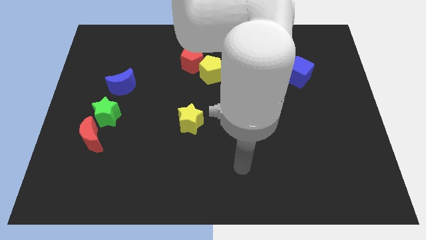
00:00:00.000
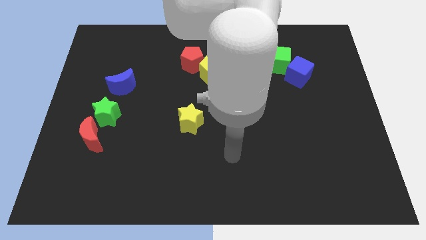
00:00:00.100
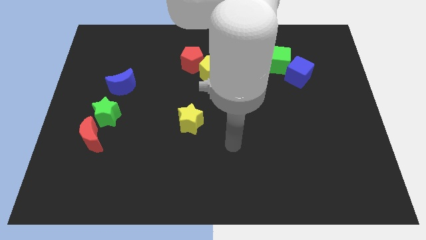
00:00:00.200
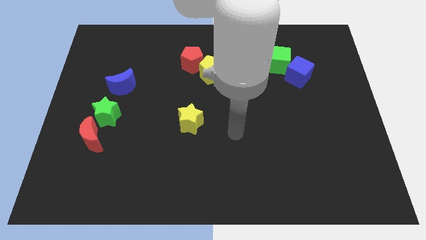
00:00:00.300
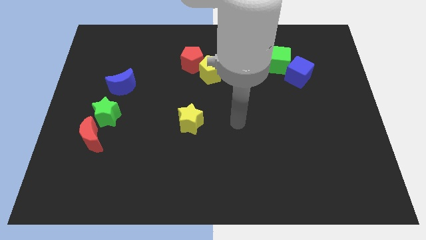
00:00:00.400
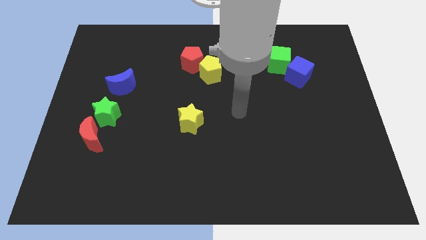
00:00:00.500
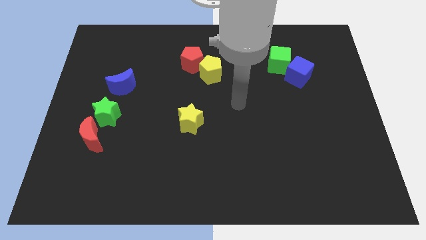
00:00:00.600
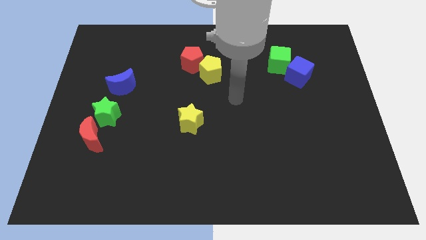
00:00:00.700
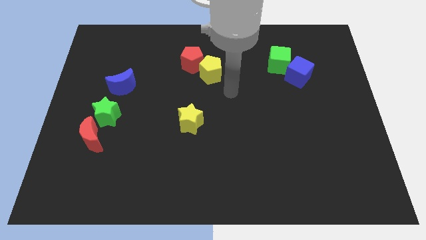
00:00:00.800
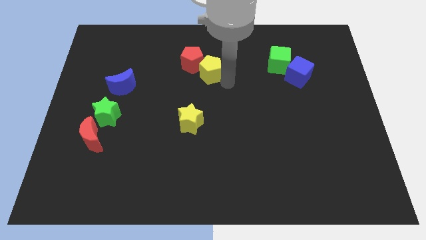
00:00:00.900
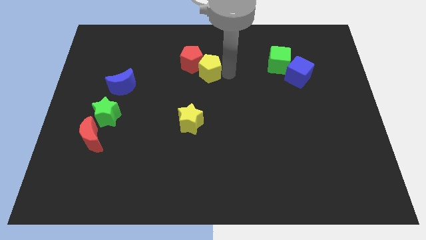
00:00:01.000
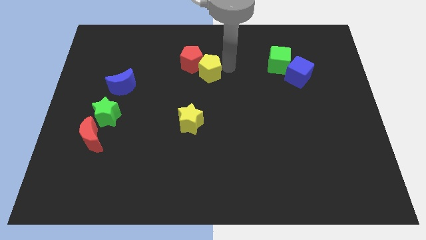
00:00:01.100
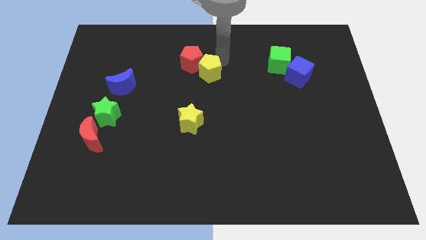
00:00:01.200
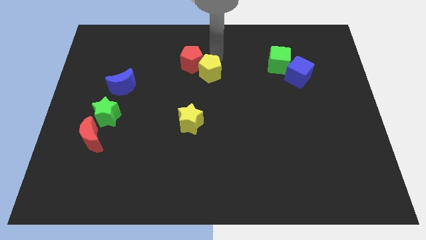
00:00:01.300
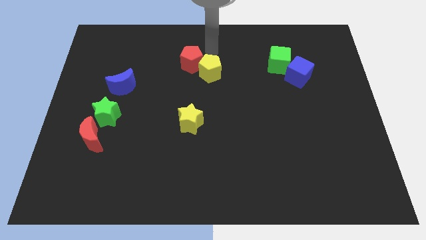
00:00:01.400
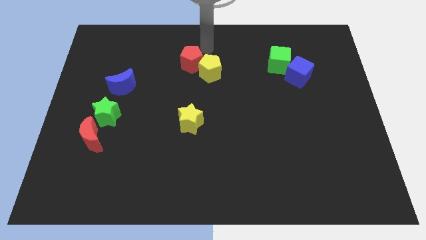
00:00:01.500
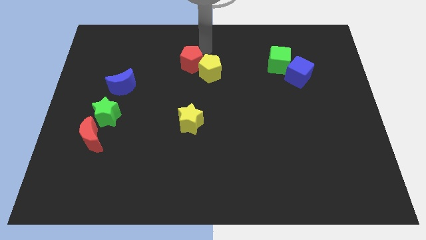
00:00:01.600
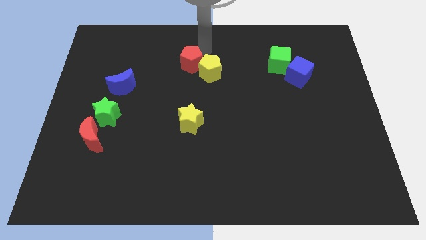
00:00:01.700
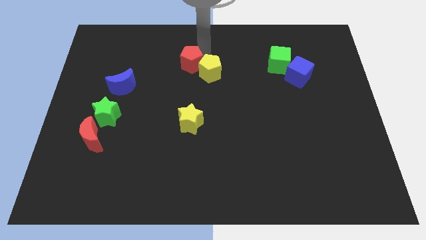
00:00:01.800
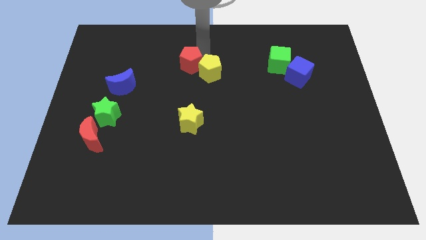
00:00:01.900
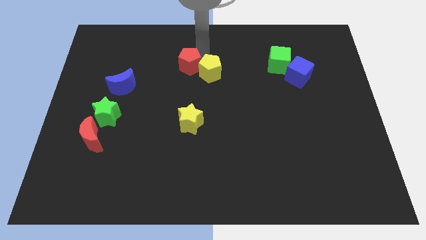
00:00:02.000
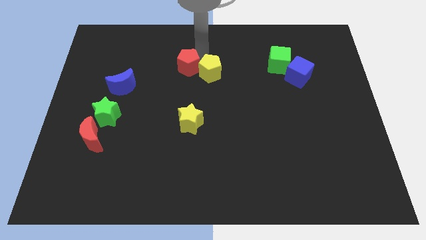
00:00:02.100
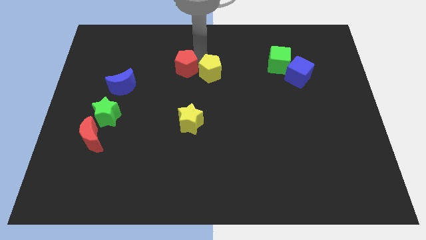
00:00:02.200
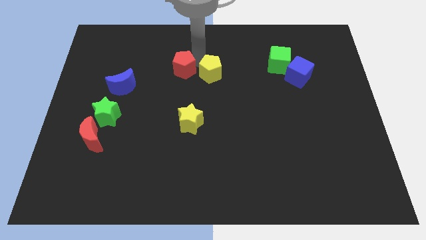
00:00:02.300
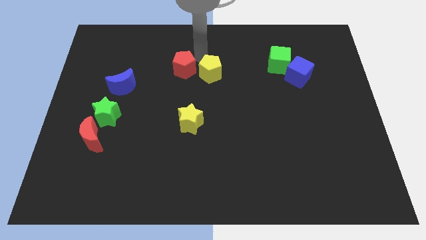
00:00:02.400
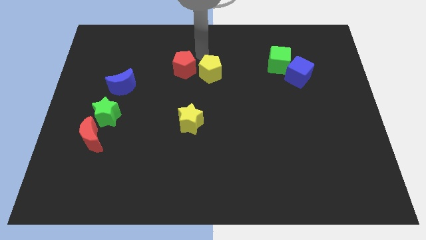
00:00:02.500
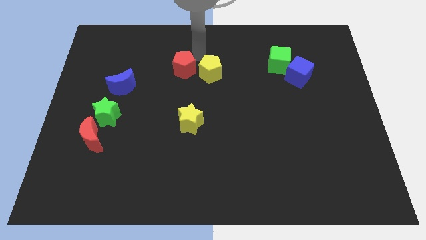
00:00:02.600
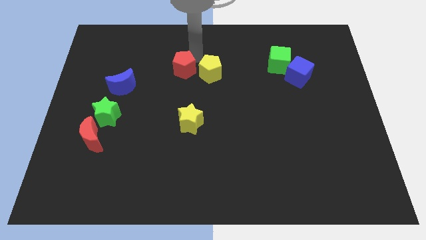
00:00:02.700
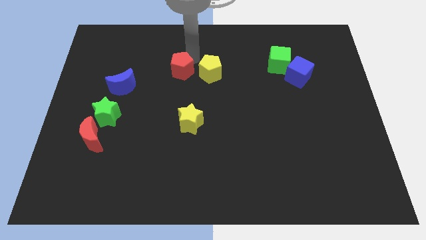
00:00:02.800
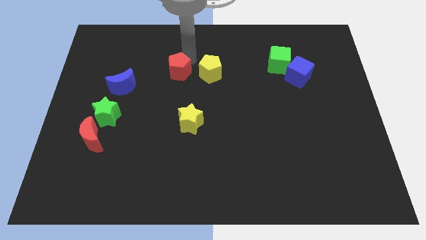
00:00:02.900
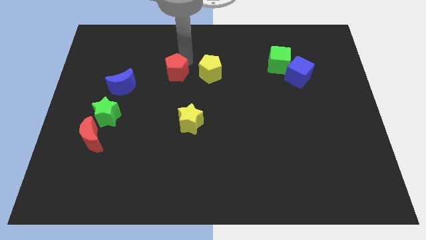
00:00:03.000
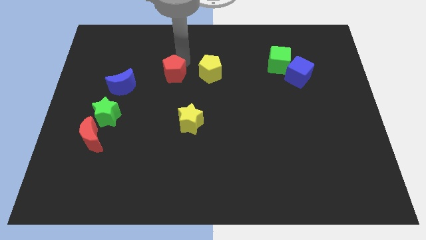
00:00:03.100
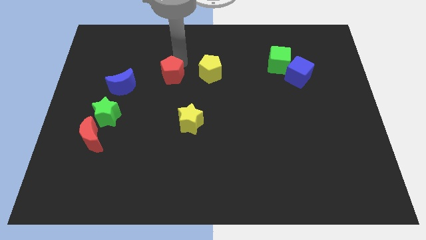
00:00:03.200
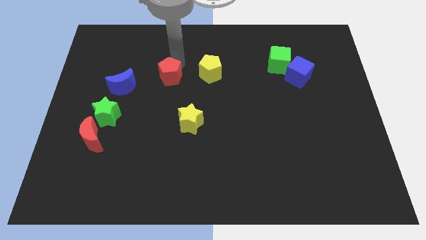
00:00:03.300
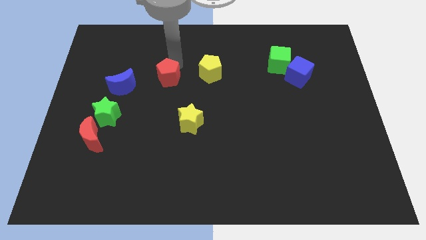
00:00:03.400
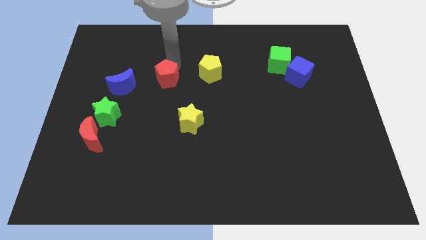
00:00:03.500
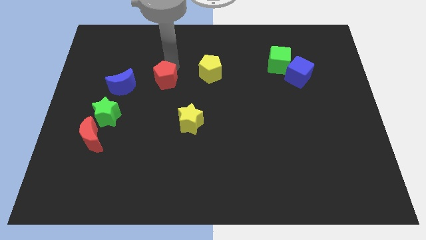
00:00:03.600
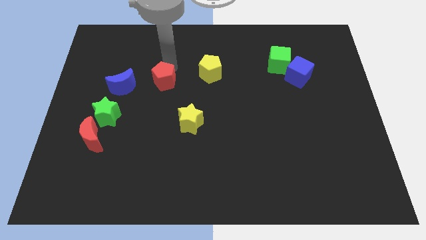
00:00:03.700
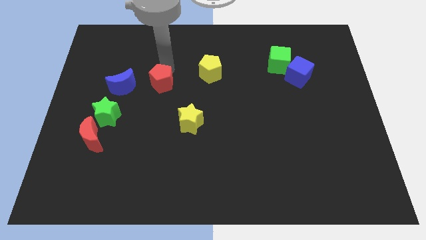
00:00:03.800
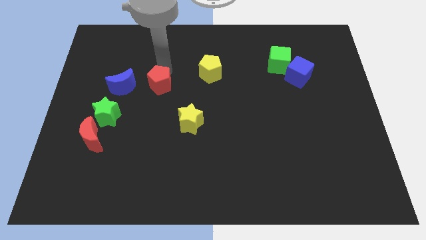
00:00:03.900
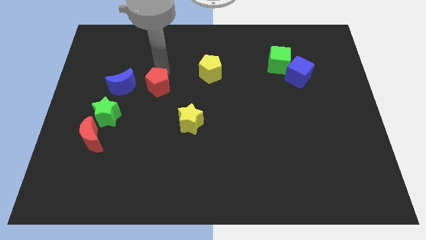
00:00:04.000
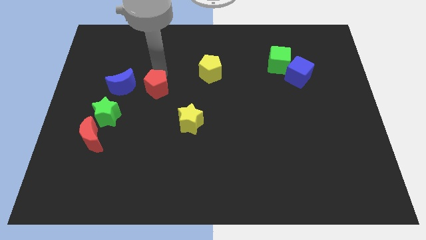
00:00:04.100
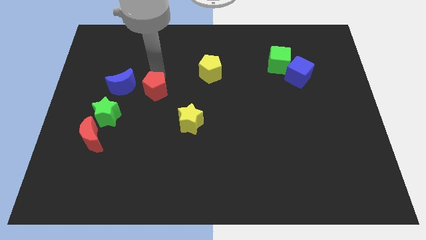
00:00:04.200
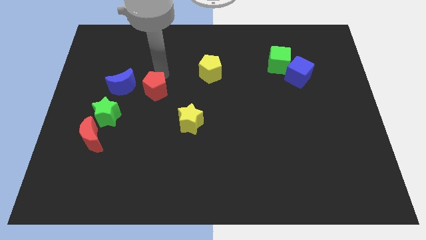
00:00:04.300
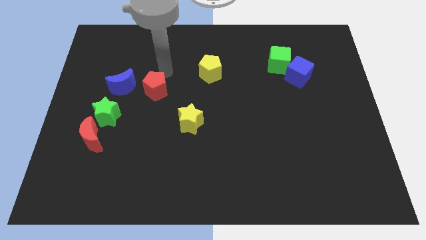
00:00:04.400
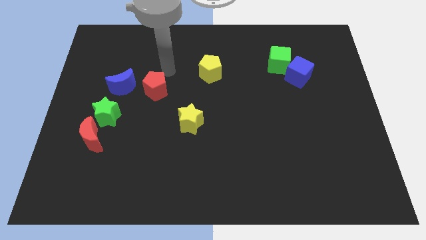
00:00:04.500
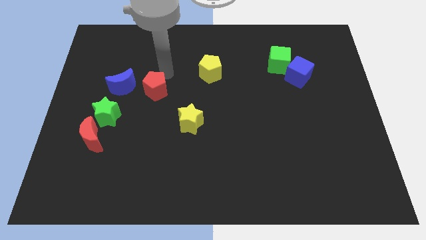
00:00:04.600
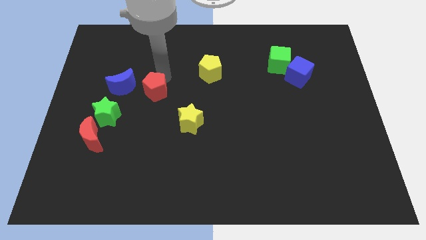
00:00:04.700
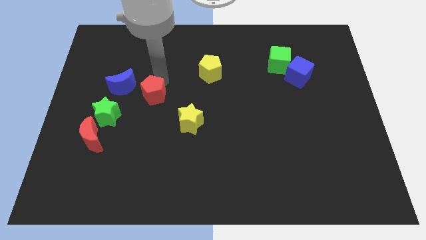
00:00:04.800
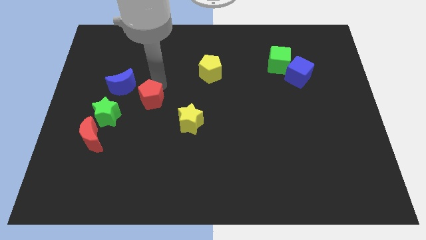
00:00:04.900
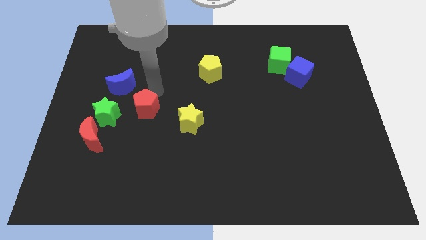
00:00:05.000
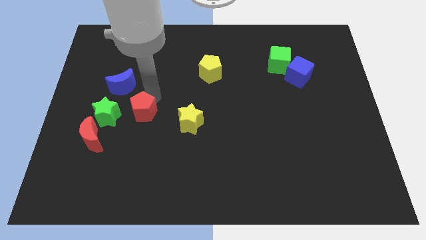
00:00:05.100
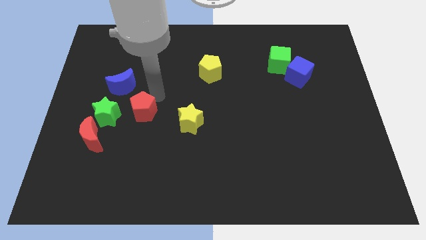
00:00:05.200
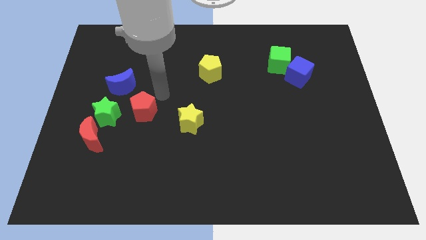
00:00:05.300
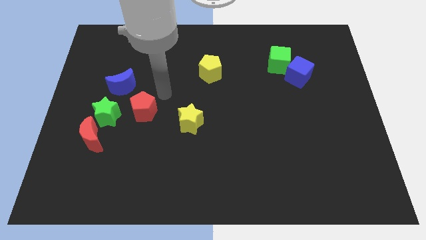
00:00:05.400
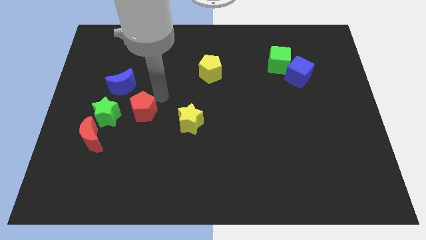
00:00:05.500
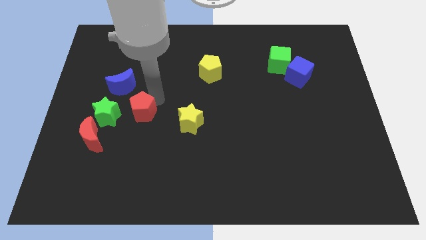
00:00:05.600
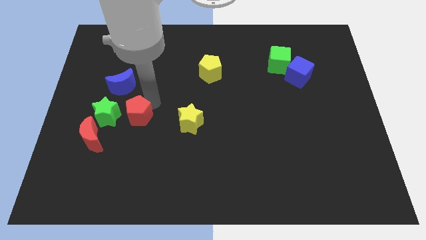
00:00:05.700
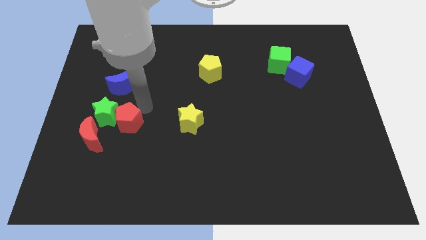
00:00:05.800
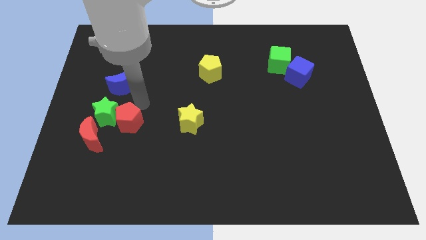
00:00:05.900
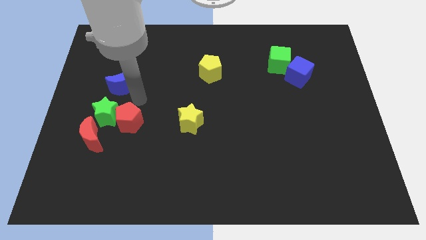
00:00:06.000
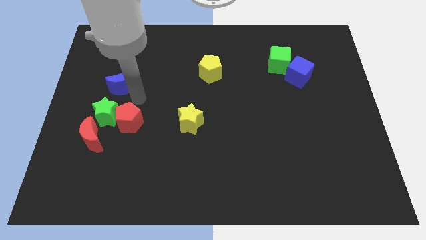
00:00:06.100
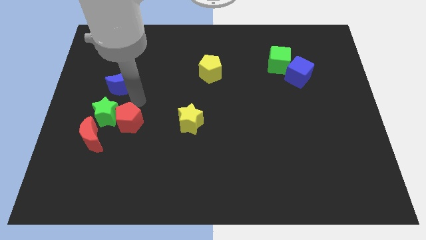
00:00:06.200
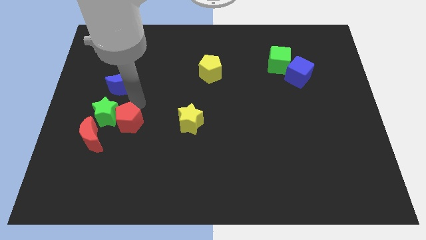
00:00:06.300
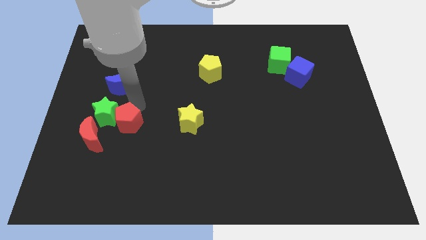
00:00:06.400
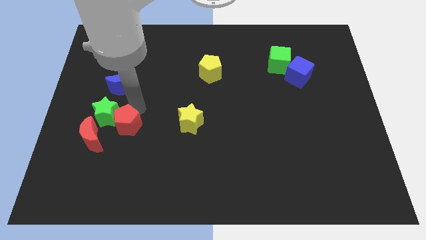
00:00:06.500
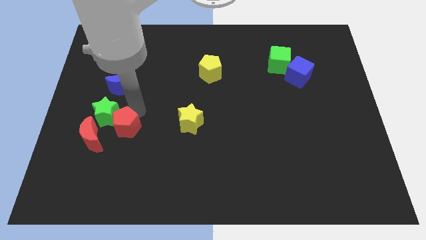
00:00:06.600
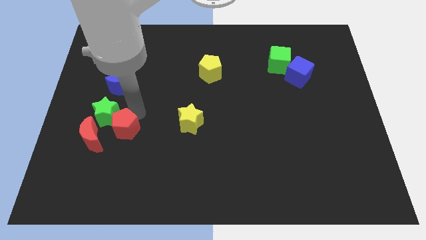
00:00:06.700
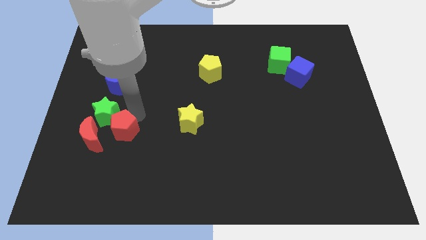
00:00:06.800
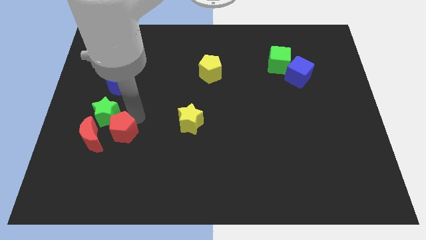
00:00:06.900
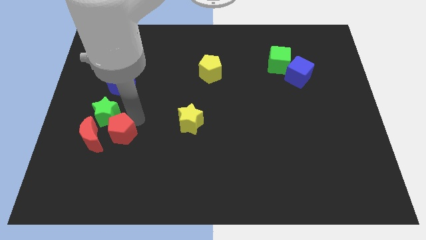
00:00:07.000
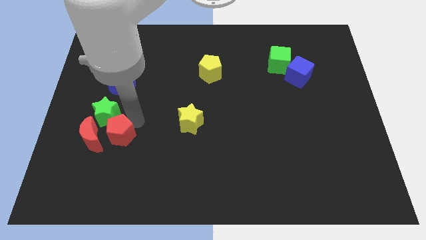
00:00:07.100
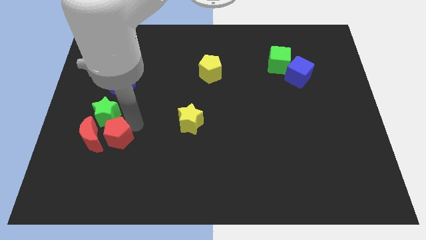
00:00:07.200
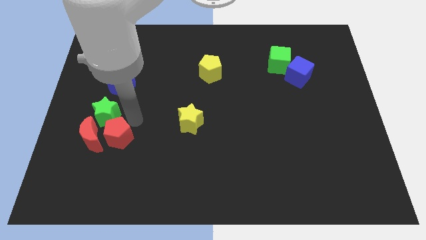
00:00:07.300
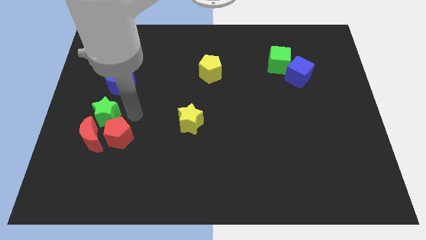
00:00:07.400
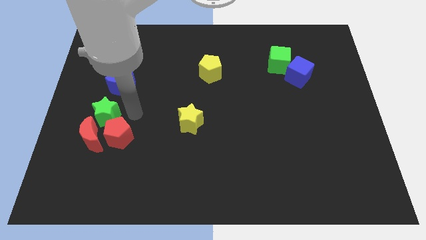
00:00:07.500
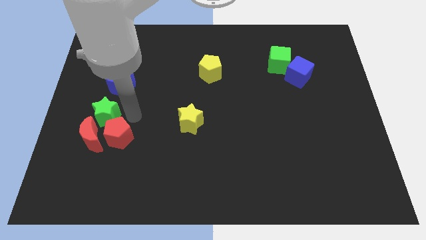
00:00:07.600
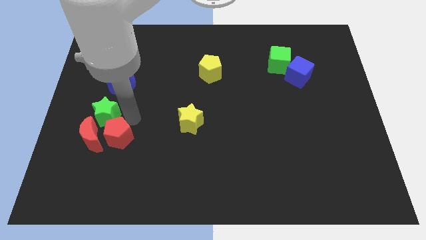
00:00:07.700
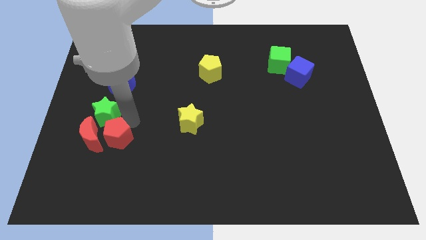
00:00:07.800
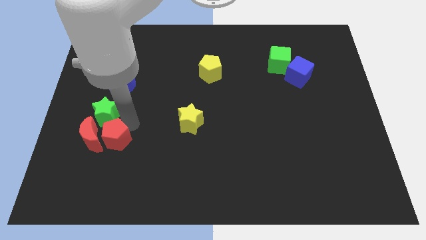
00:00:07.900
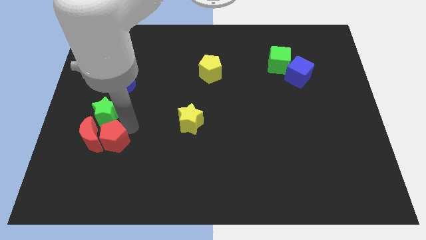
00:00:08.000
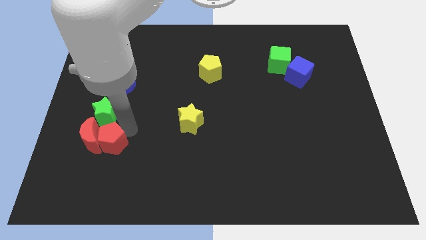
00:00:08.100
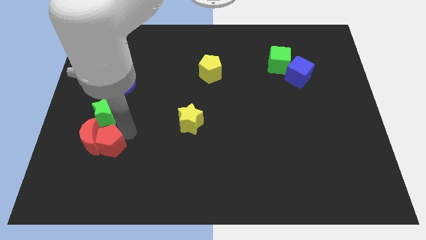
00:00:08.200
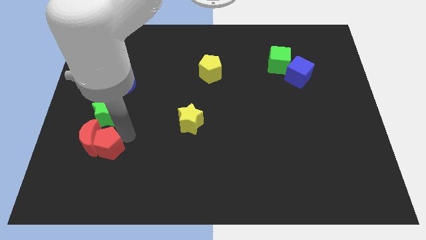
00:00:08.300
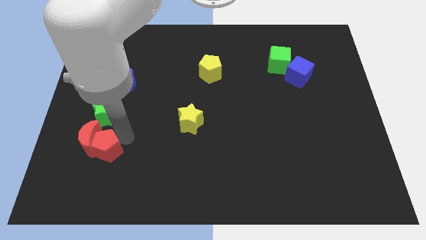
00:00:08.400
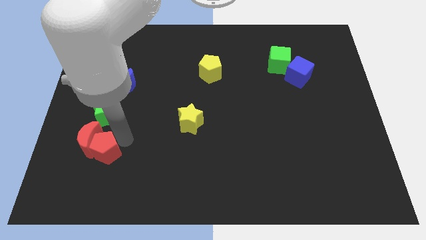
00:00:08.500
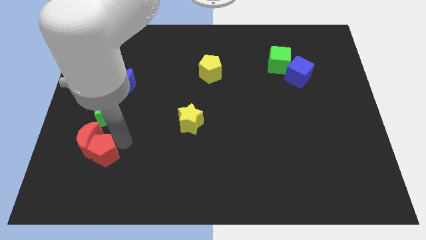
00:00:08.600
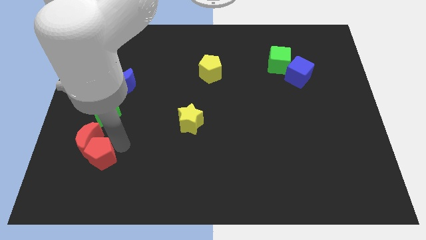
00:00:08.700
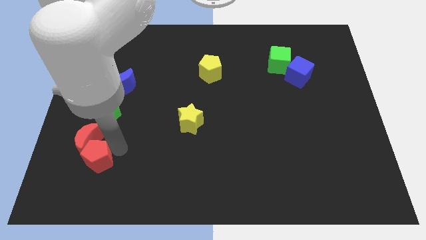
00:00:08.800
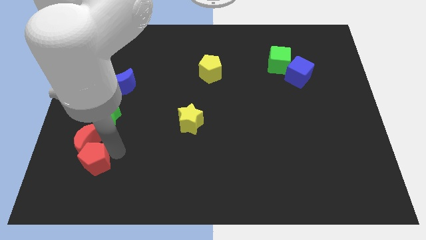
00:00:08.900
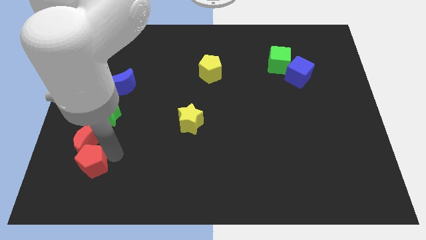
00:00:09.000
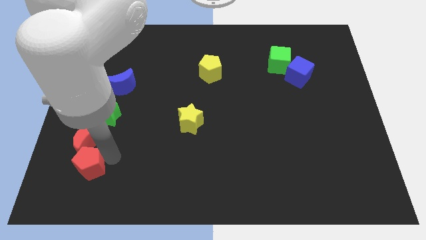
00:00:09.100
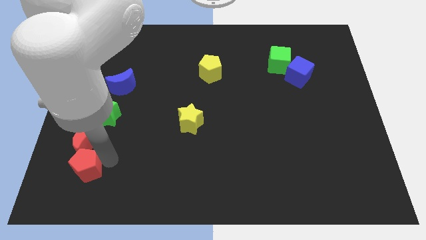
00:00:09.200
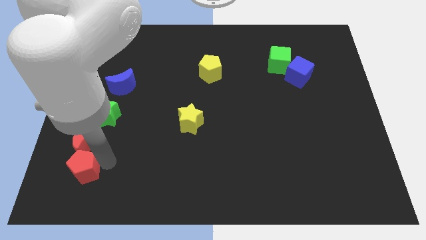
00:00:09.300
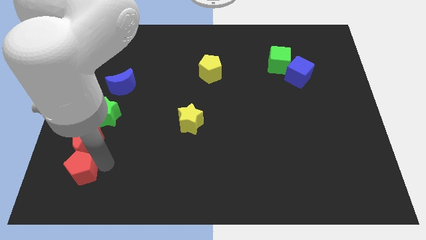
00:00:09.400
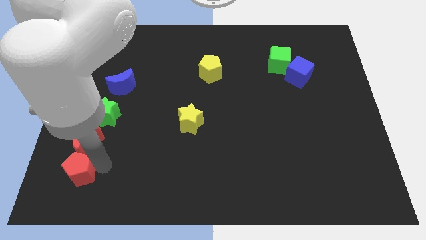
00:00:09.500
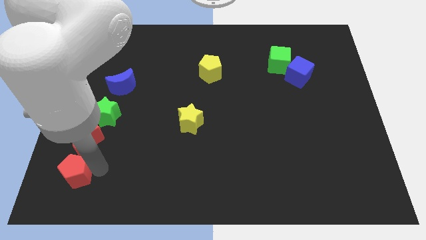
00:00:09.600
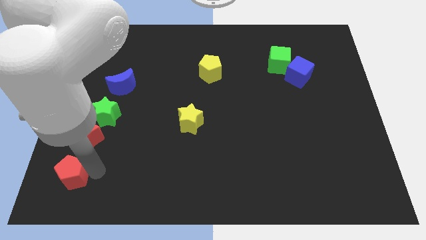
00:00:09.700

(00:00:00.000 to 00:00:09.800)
put the red pentagon to the bottom left
